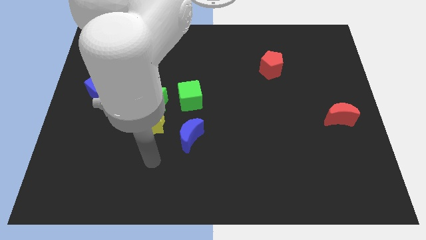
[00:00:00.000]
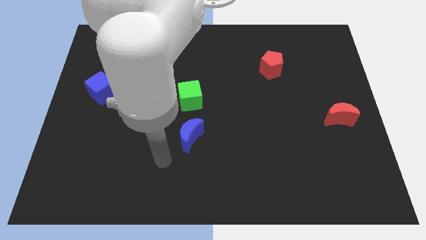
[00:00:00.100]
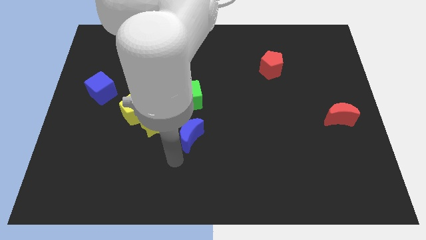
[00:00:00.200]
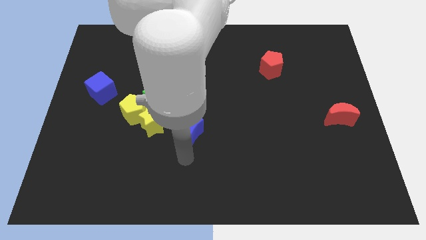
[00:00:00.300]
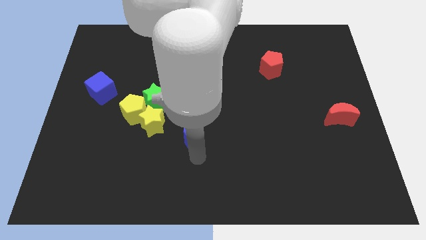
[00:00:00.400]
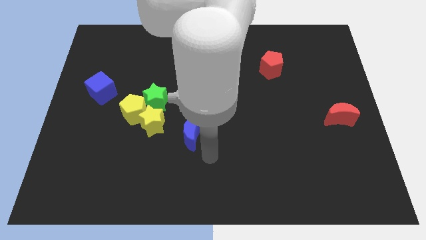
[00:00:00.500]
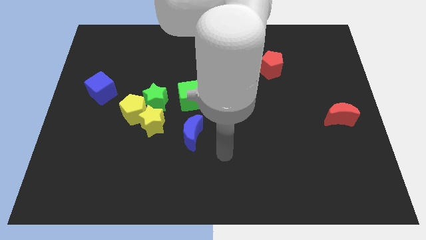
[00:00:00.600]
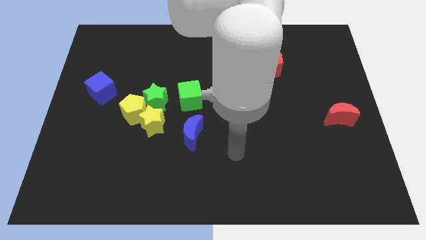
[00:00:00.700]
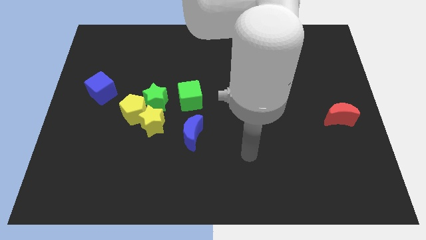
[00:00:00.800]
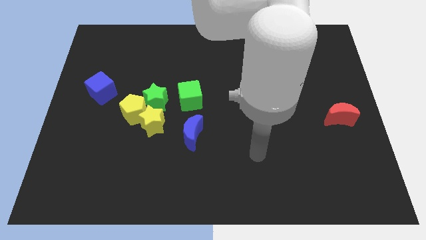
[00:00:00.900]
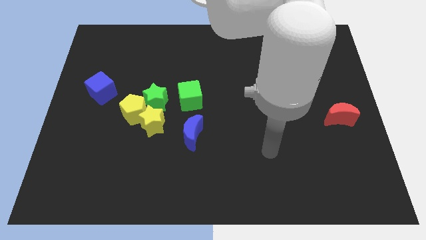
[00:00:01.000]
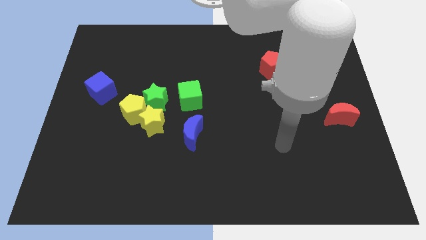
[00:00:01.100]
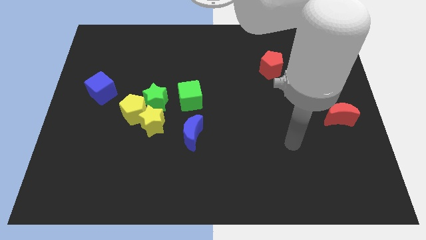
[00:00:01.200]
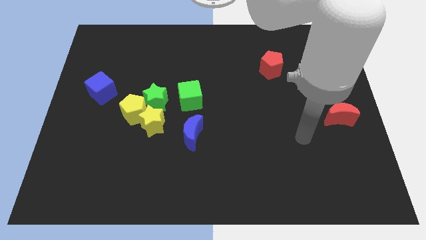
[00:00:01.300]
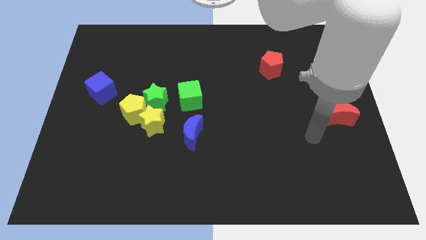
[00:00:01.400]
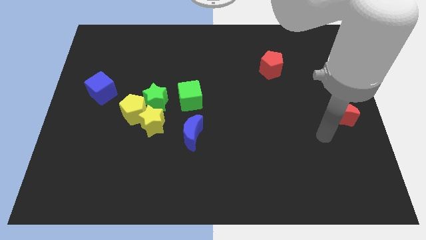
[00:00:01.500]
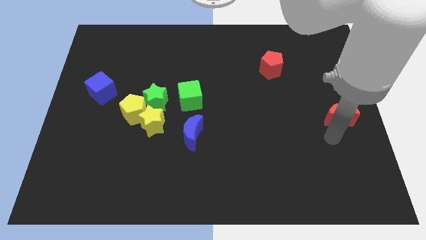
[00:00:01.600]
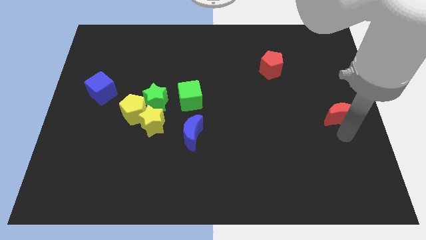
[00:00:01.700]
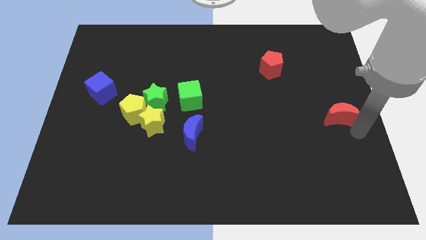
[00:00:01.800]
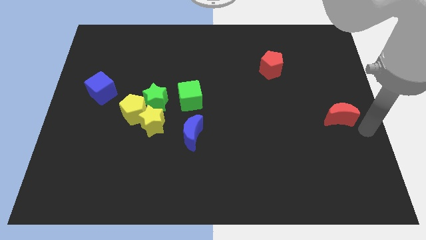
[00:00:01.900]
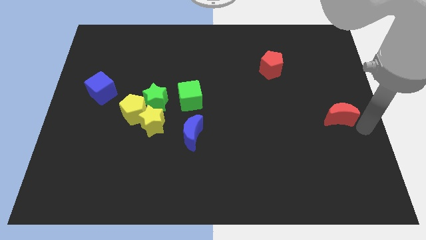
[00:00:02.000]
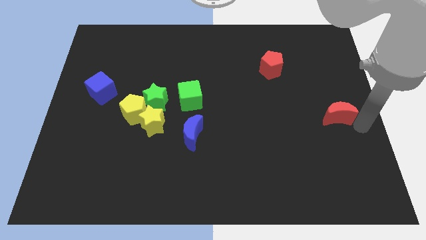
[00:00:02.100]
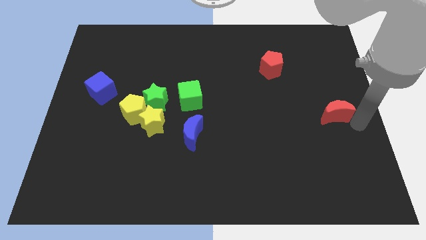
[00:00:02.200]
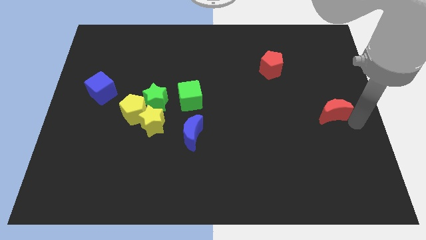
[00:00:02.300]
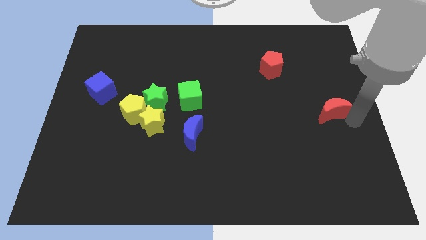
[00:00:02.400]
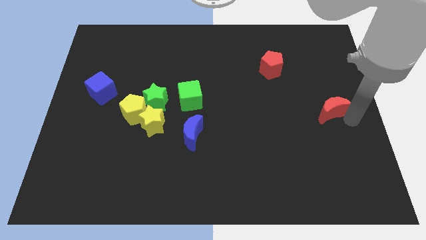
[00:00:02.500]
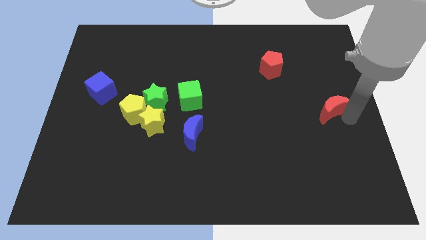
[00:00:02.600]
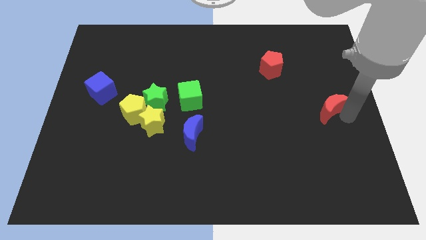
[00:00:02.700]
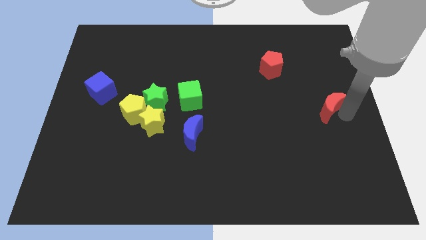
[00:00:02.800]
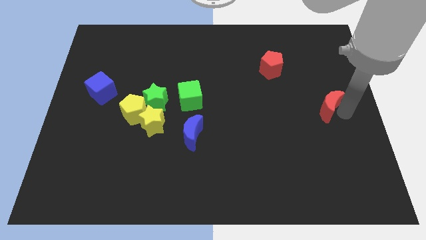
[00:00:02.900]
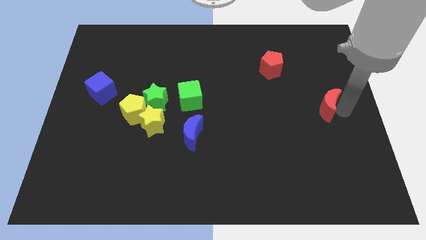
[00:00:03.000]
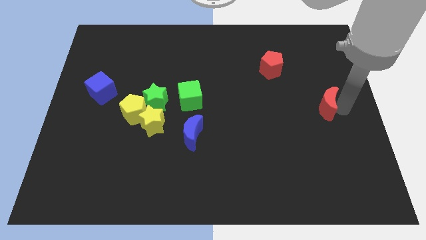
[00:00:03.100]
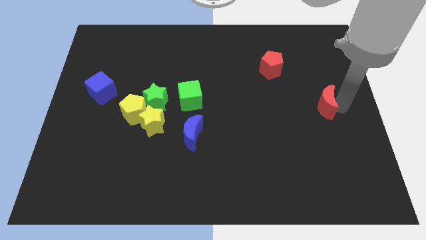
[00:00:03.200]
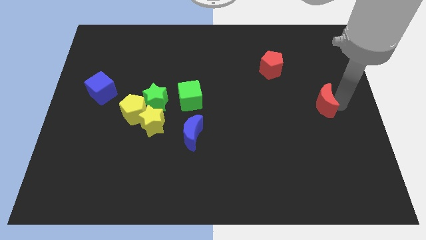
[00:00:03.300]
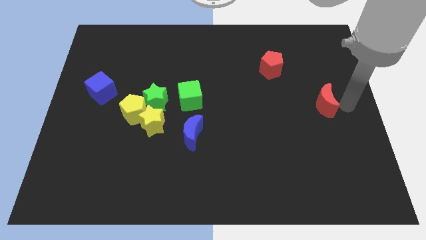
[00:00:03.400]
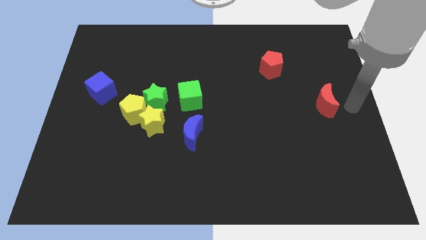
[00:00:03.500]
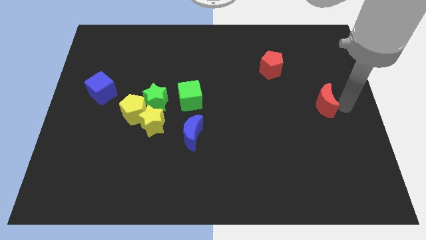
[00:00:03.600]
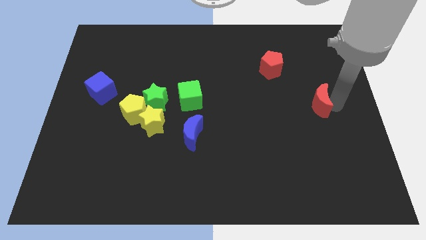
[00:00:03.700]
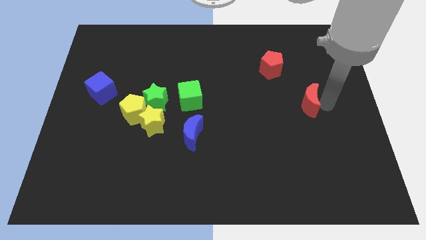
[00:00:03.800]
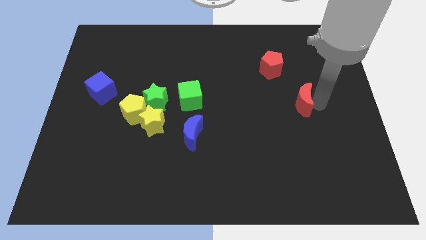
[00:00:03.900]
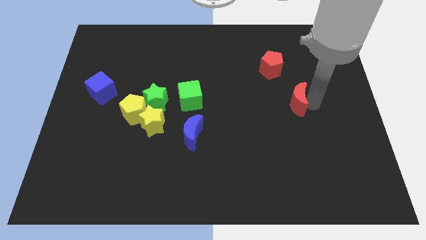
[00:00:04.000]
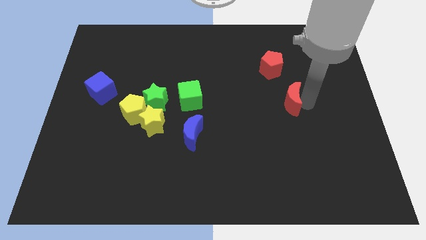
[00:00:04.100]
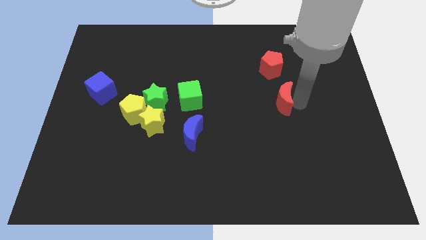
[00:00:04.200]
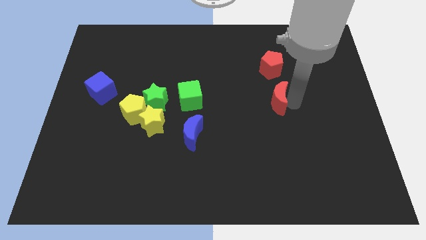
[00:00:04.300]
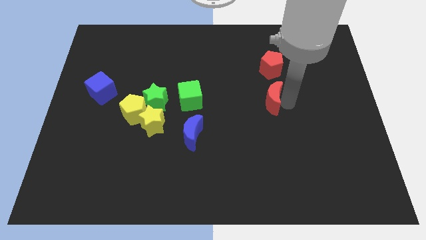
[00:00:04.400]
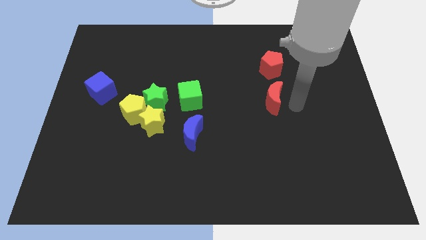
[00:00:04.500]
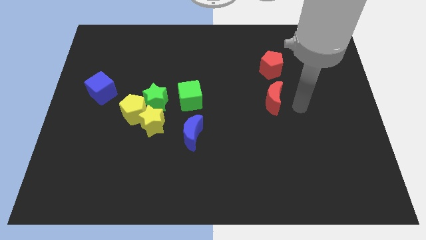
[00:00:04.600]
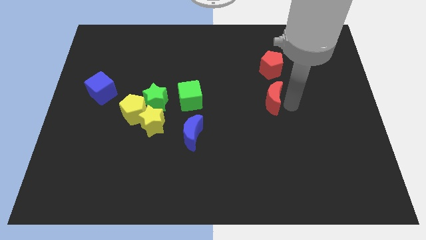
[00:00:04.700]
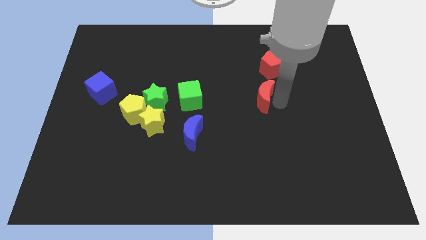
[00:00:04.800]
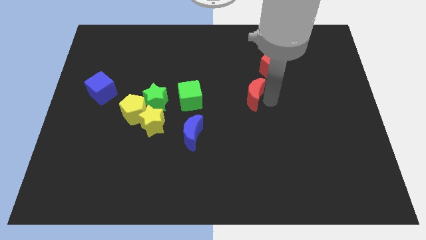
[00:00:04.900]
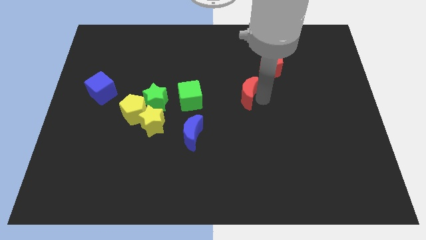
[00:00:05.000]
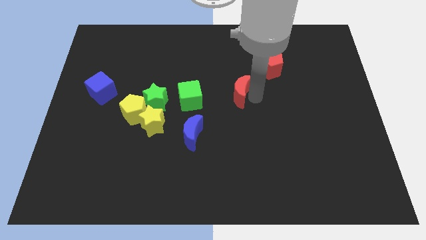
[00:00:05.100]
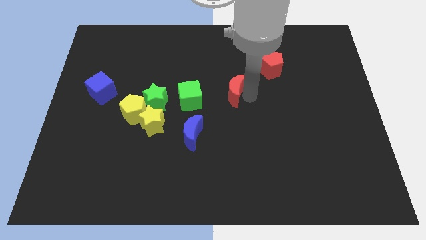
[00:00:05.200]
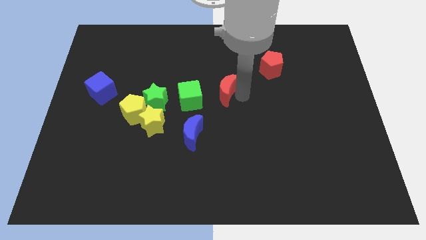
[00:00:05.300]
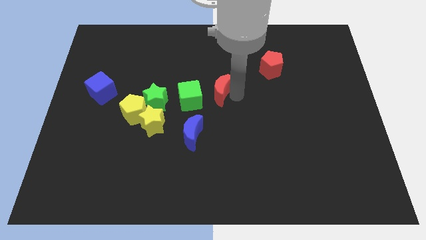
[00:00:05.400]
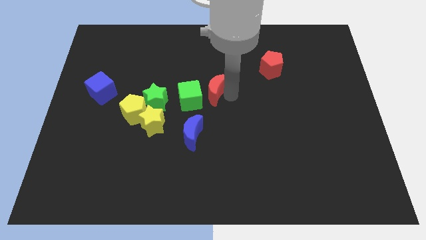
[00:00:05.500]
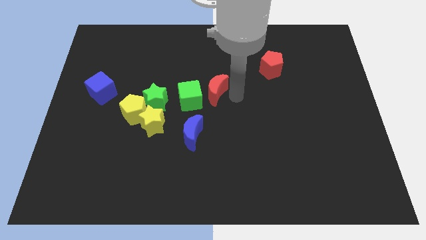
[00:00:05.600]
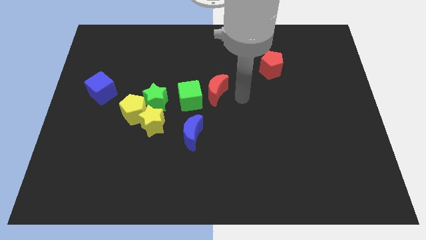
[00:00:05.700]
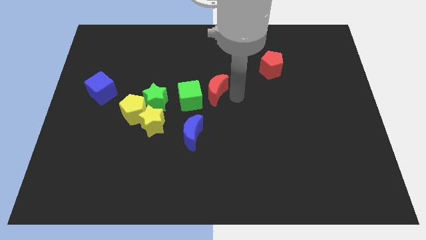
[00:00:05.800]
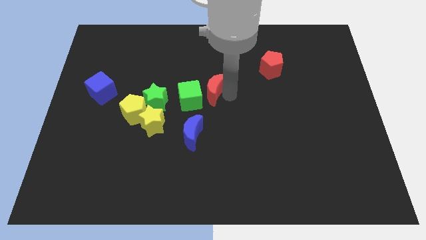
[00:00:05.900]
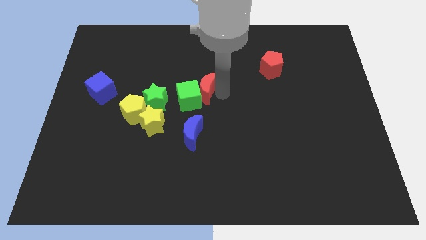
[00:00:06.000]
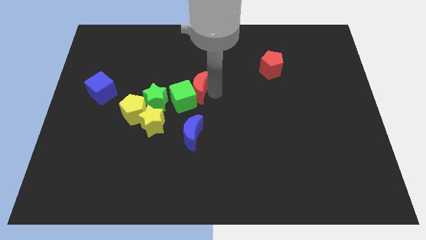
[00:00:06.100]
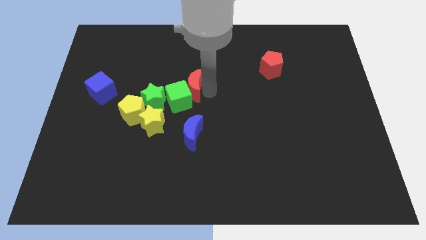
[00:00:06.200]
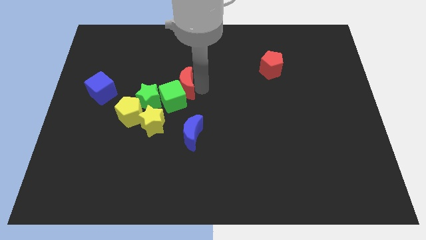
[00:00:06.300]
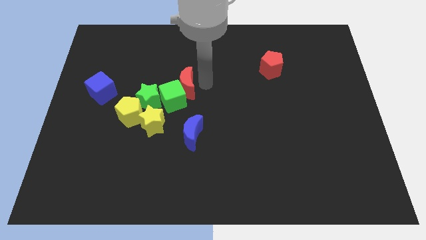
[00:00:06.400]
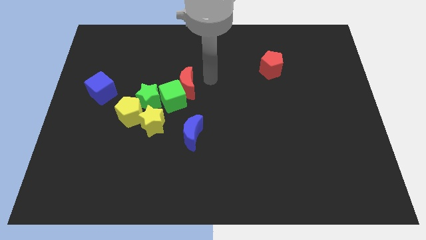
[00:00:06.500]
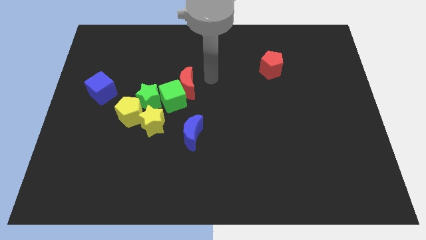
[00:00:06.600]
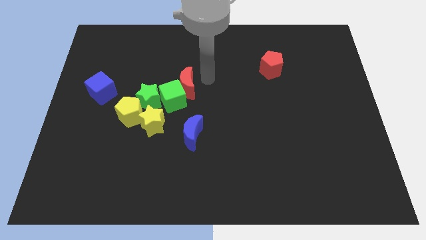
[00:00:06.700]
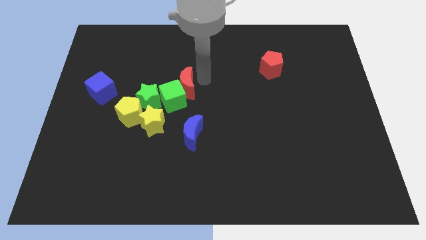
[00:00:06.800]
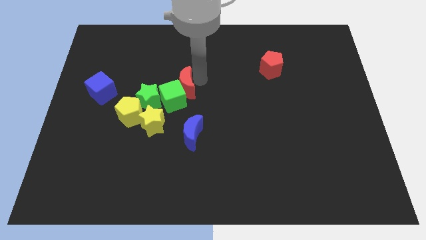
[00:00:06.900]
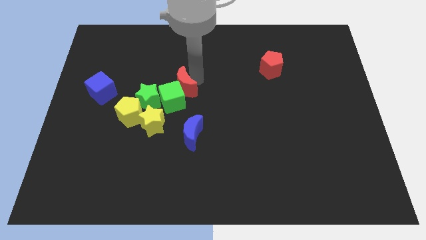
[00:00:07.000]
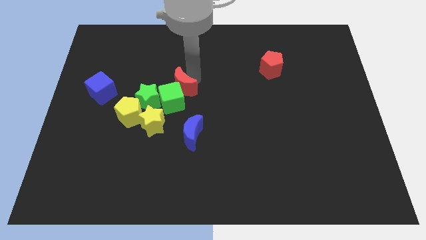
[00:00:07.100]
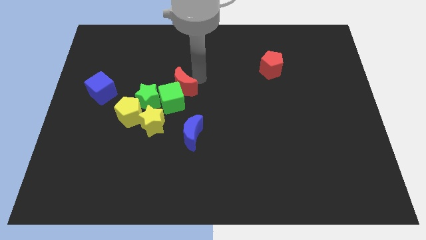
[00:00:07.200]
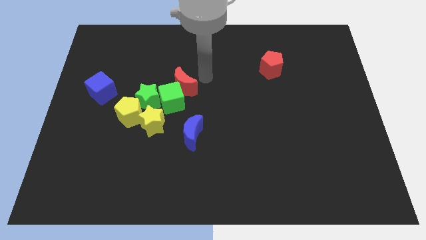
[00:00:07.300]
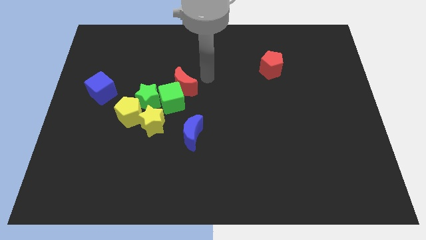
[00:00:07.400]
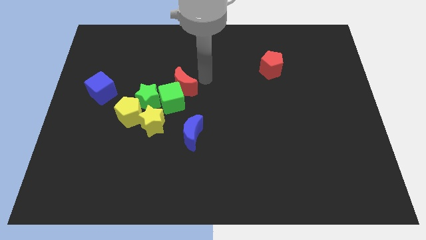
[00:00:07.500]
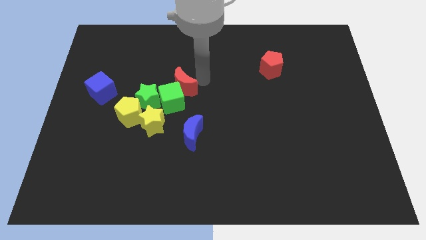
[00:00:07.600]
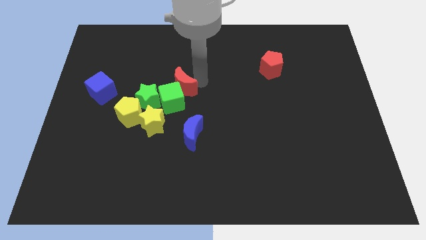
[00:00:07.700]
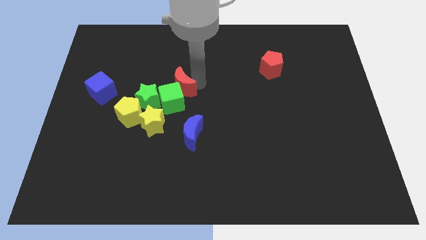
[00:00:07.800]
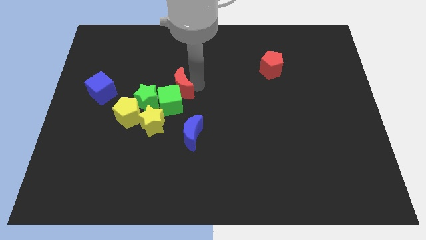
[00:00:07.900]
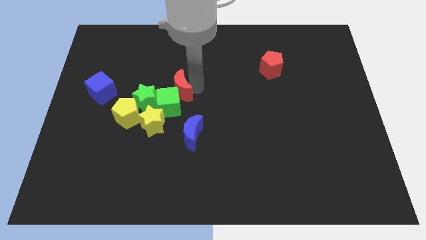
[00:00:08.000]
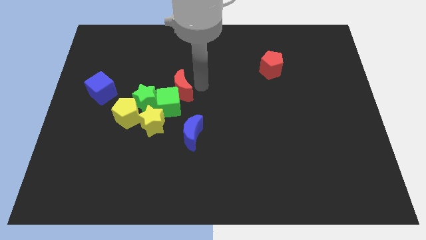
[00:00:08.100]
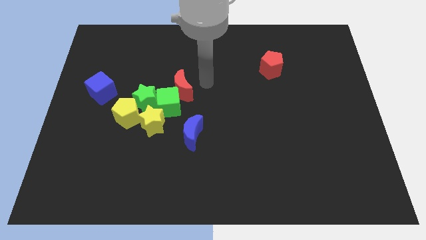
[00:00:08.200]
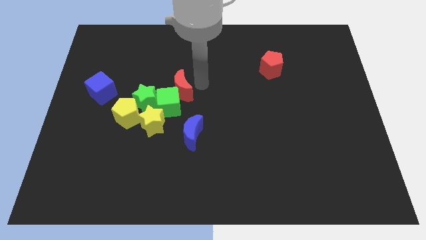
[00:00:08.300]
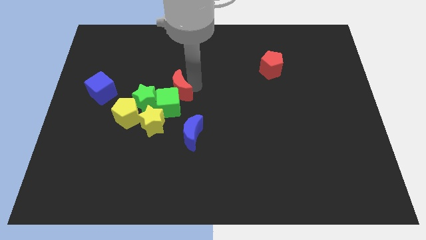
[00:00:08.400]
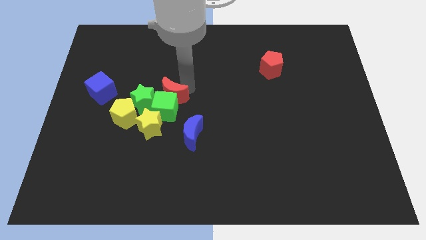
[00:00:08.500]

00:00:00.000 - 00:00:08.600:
slide the red moon diagonally up and to the right of the yellow pentagon
